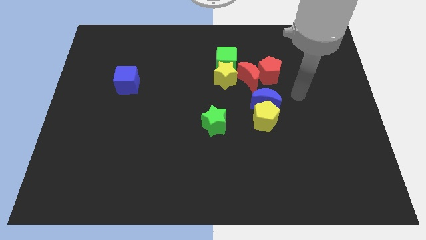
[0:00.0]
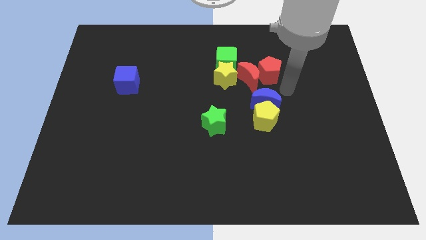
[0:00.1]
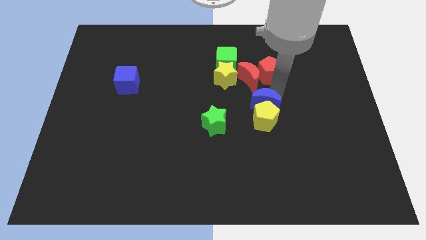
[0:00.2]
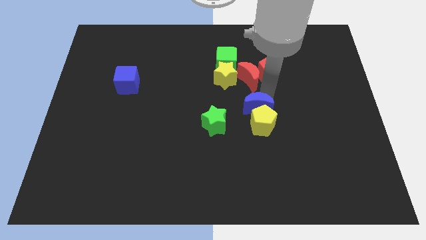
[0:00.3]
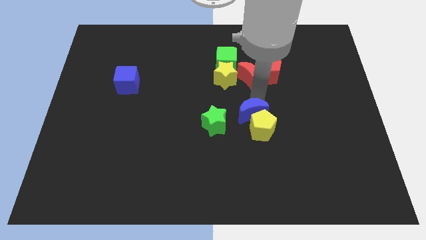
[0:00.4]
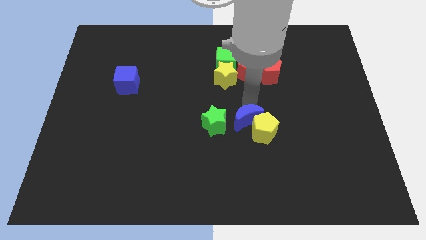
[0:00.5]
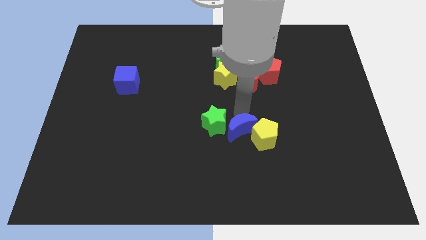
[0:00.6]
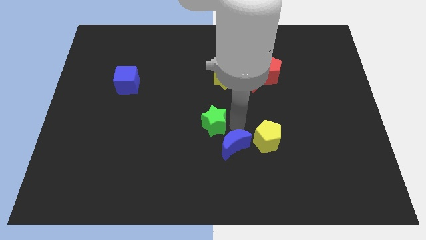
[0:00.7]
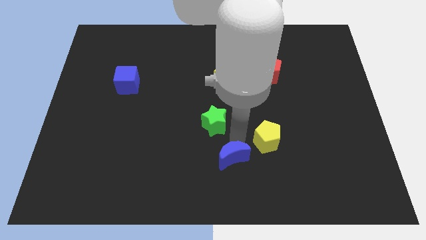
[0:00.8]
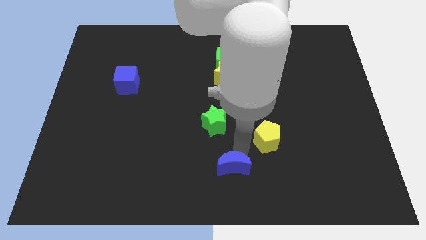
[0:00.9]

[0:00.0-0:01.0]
separate the yellow pentagon from the blue moon

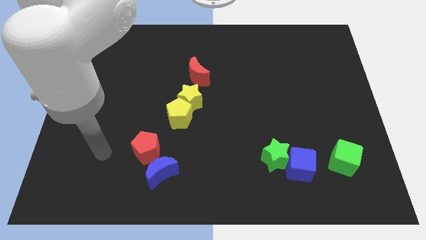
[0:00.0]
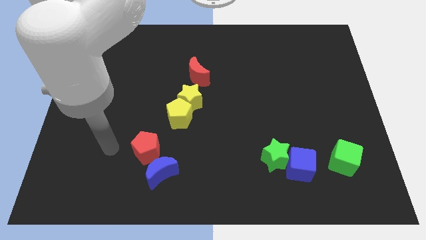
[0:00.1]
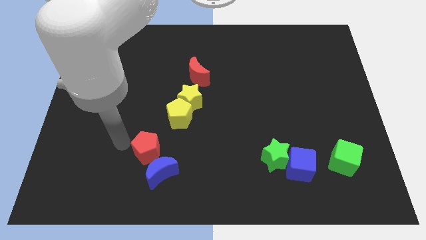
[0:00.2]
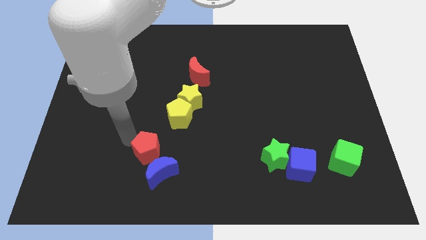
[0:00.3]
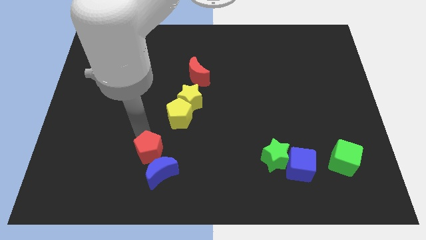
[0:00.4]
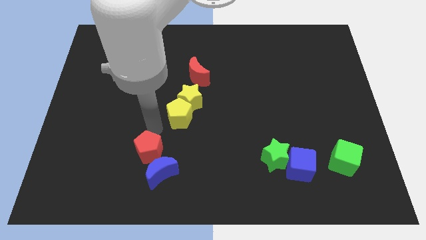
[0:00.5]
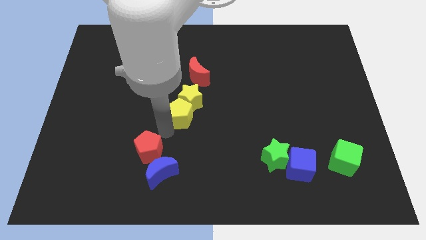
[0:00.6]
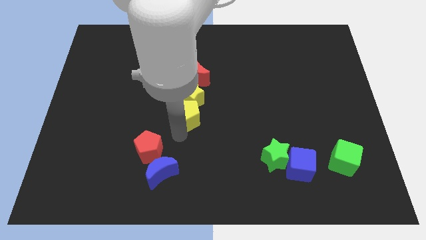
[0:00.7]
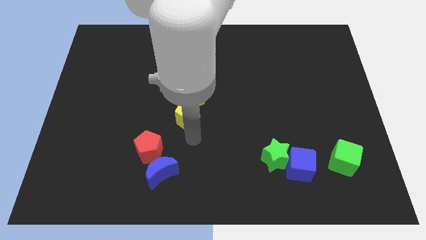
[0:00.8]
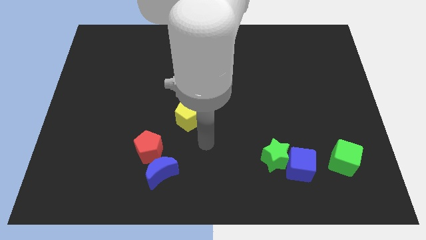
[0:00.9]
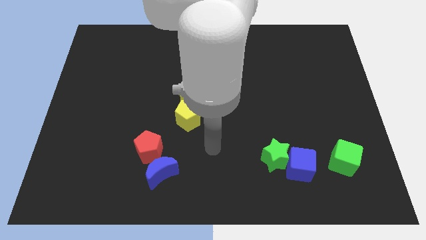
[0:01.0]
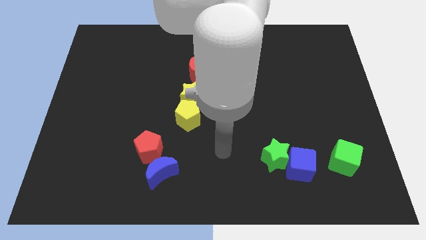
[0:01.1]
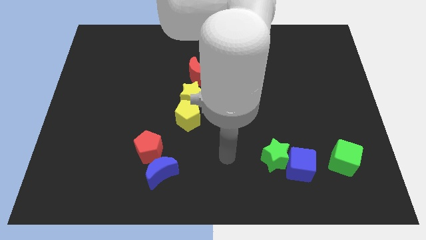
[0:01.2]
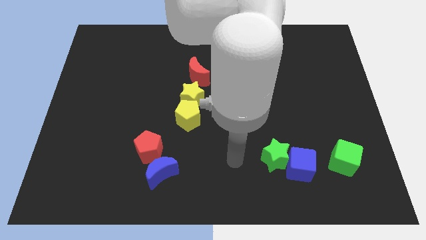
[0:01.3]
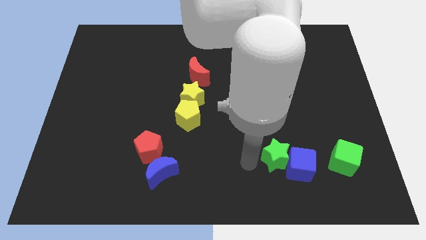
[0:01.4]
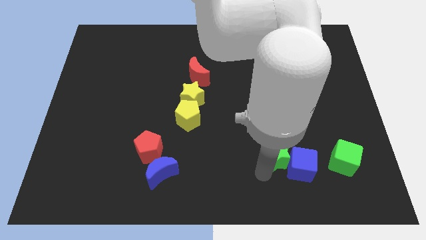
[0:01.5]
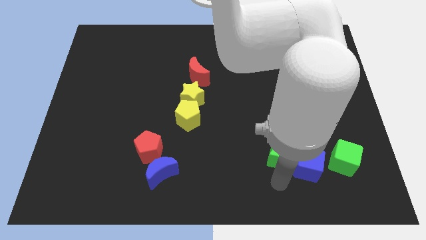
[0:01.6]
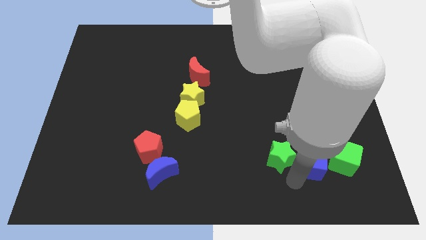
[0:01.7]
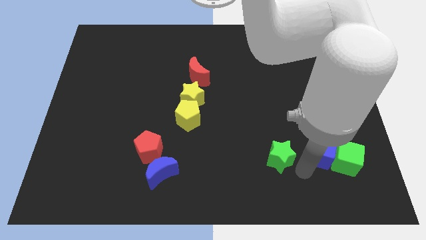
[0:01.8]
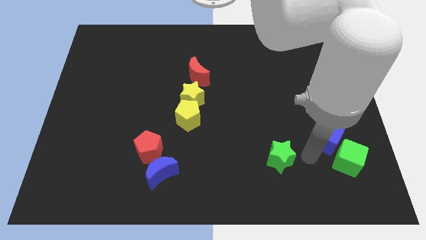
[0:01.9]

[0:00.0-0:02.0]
pull the green star apart from the blue cube

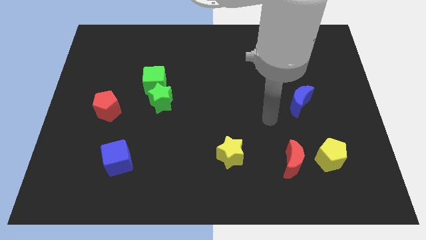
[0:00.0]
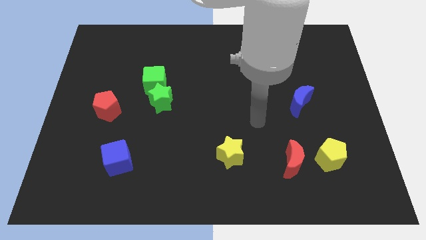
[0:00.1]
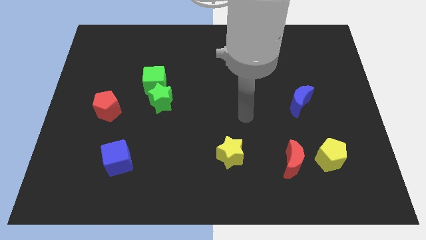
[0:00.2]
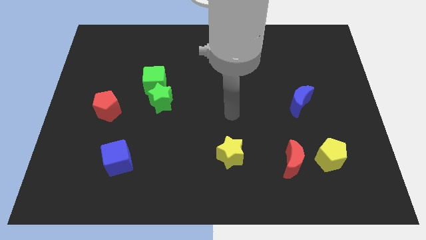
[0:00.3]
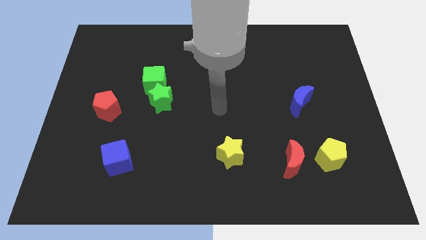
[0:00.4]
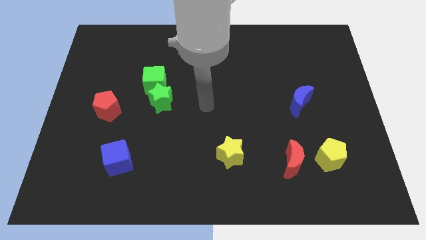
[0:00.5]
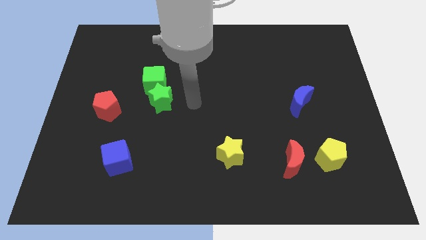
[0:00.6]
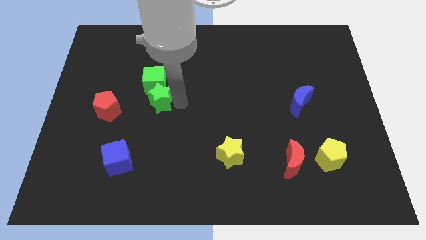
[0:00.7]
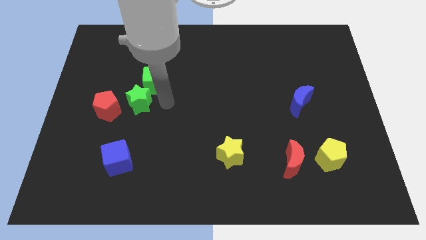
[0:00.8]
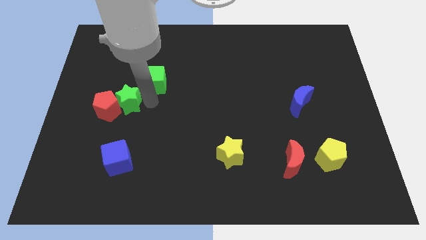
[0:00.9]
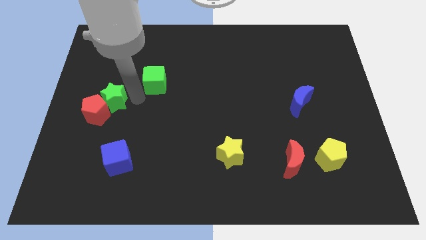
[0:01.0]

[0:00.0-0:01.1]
separate the green cube from the green star

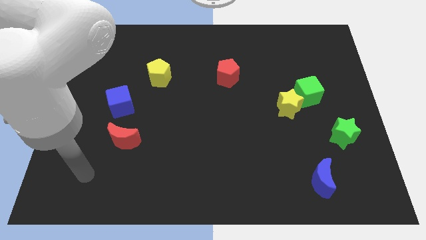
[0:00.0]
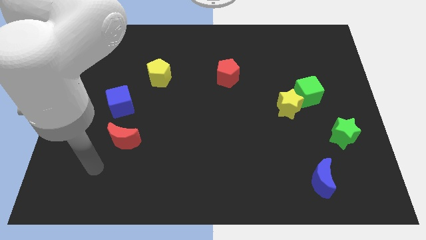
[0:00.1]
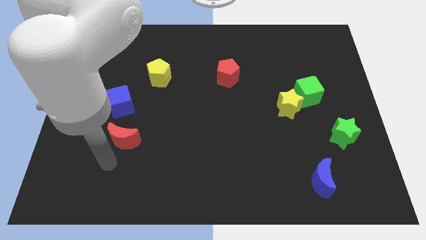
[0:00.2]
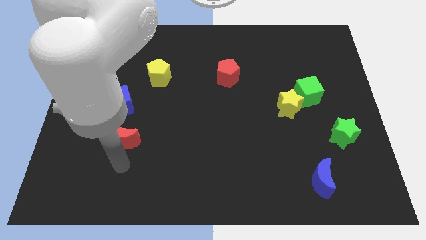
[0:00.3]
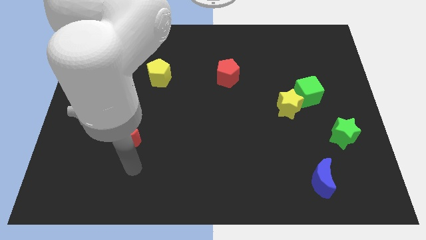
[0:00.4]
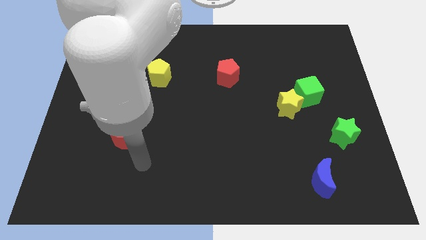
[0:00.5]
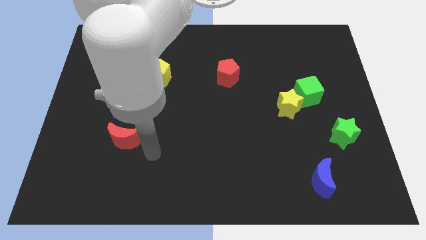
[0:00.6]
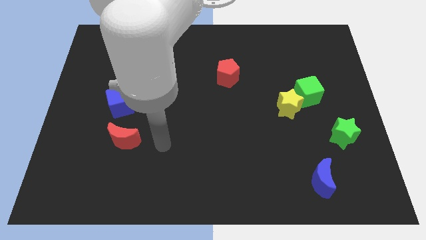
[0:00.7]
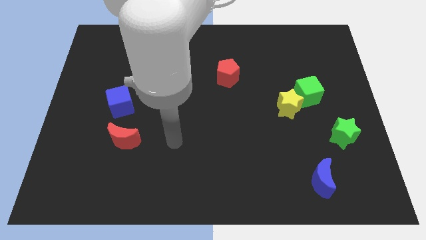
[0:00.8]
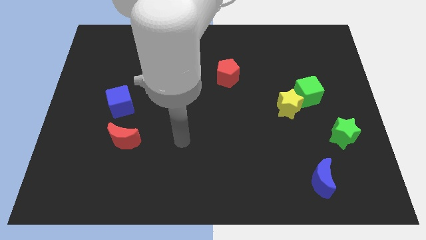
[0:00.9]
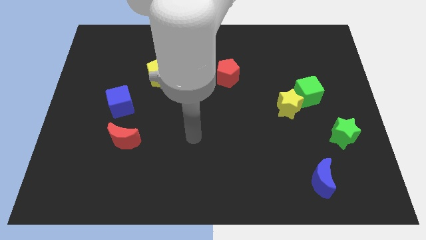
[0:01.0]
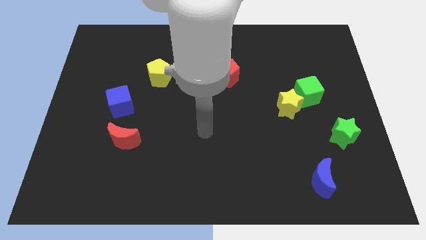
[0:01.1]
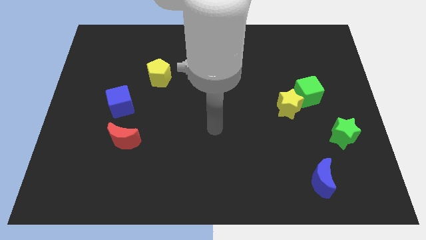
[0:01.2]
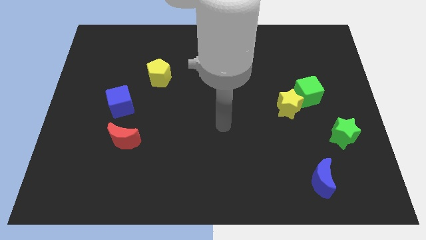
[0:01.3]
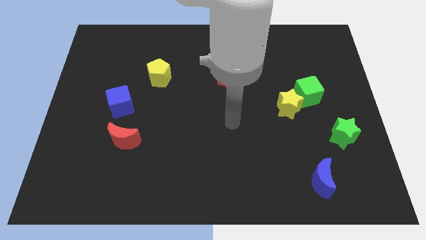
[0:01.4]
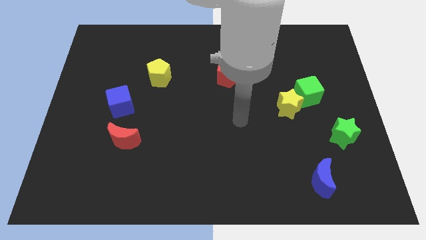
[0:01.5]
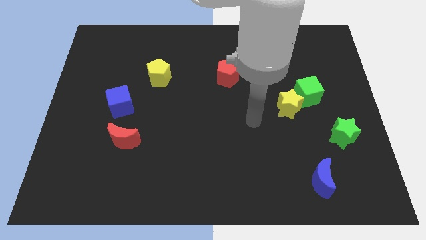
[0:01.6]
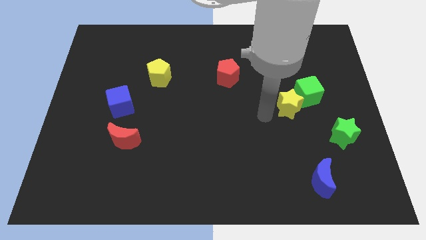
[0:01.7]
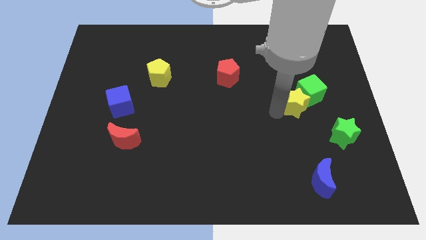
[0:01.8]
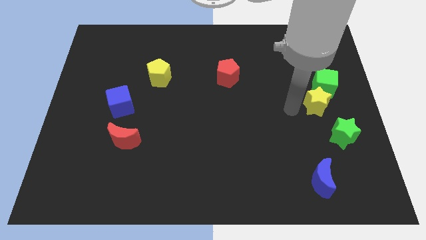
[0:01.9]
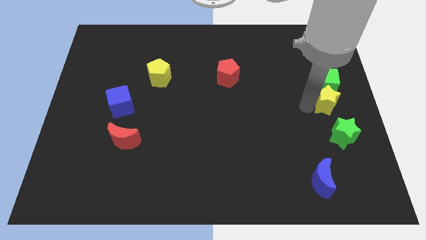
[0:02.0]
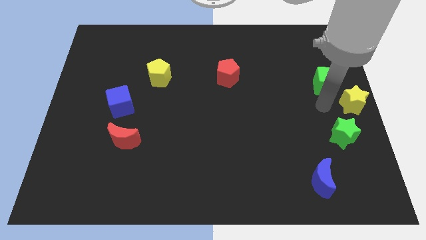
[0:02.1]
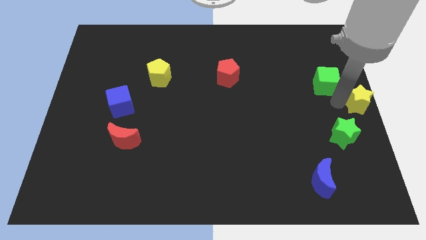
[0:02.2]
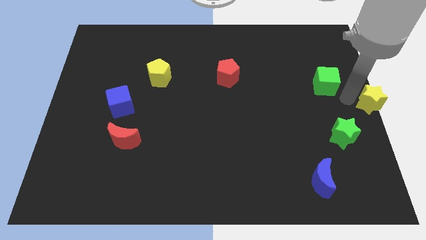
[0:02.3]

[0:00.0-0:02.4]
separate the green cube from the yellow star

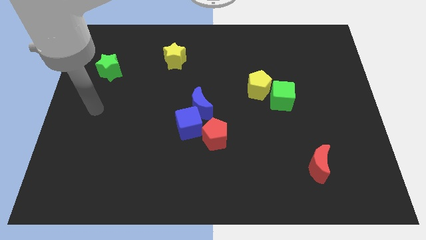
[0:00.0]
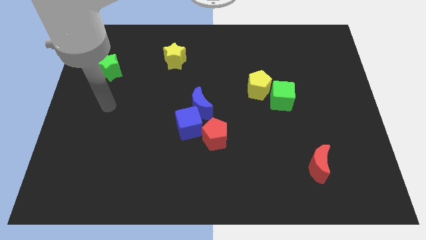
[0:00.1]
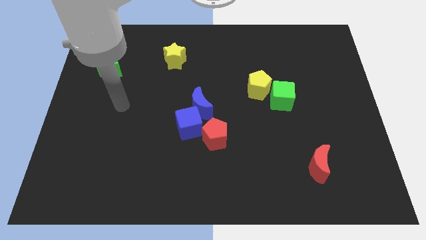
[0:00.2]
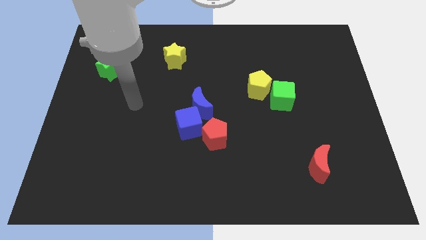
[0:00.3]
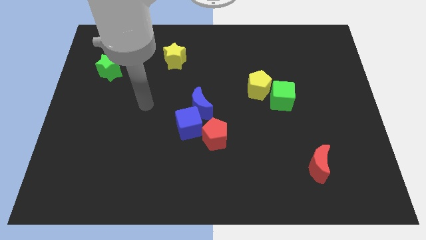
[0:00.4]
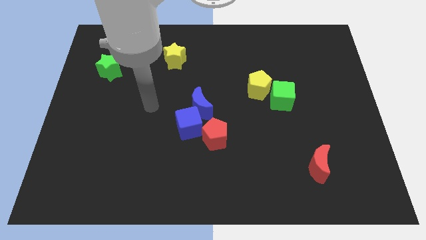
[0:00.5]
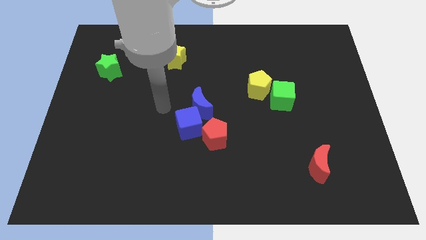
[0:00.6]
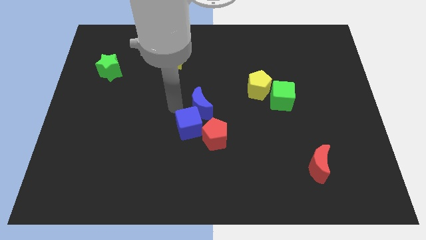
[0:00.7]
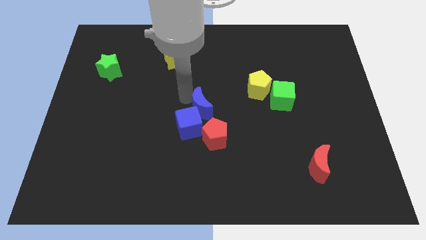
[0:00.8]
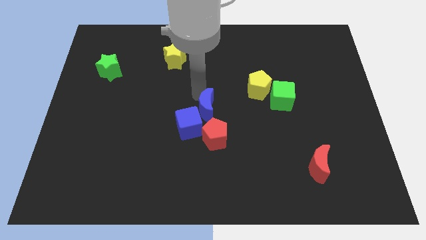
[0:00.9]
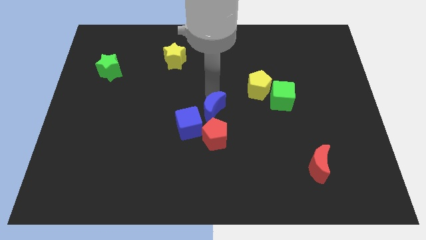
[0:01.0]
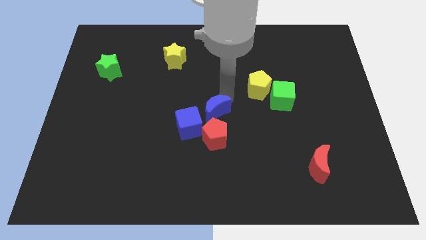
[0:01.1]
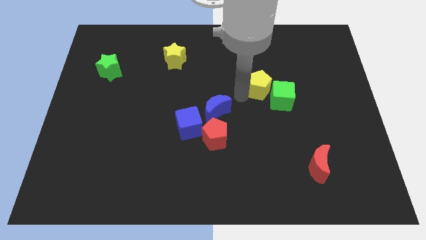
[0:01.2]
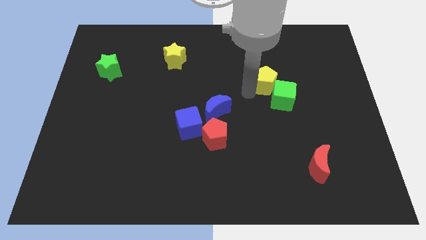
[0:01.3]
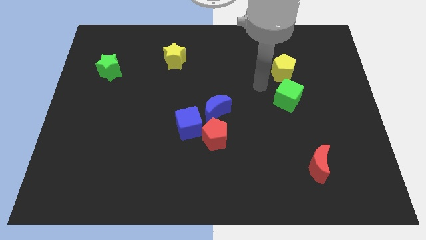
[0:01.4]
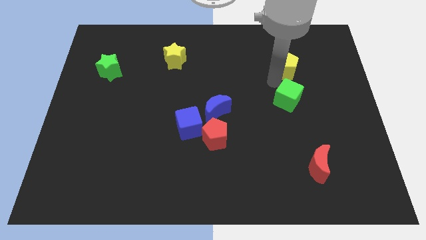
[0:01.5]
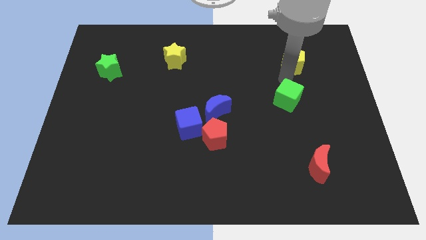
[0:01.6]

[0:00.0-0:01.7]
pull the green cube apart from the yellow pentagon

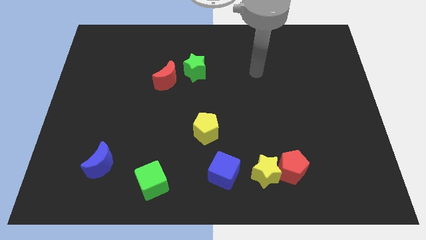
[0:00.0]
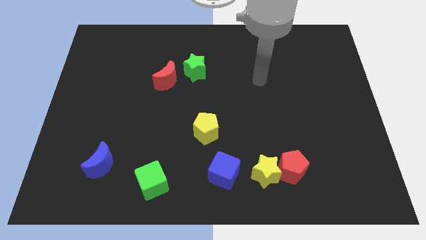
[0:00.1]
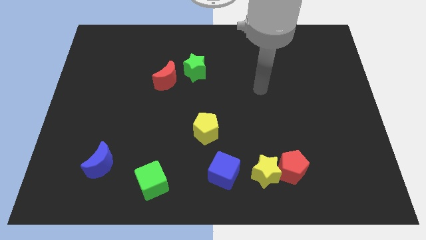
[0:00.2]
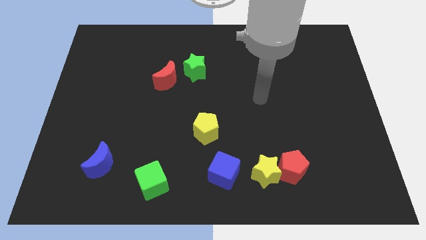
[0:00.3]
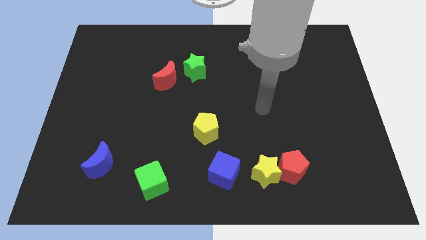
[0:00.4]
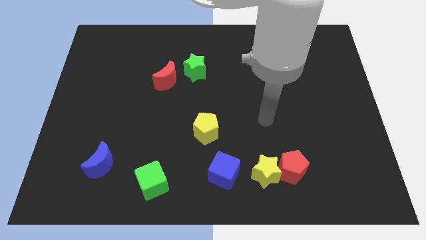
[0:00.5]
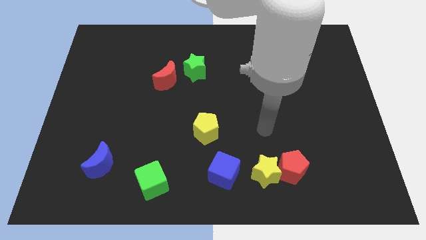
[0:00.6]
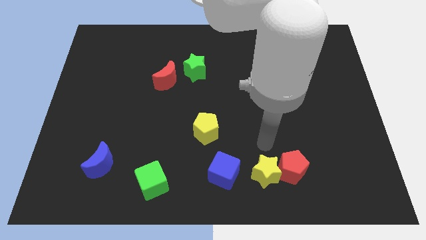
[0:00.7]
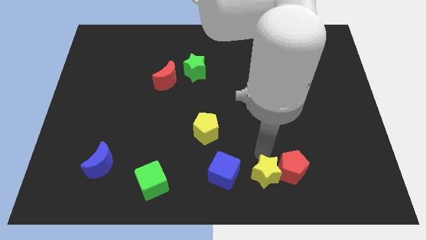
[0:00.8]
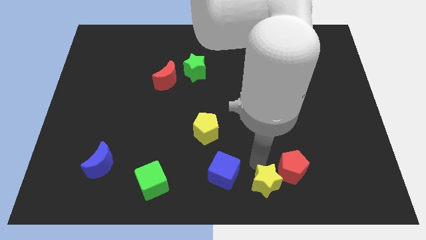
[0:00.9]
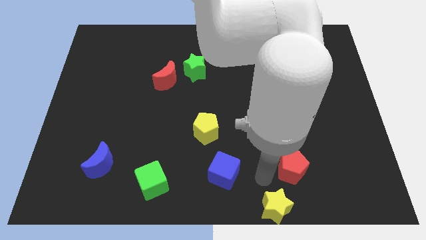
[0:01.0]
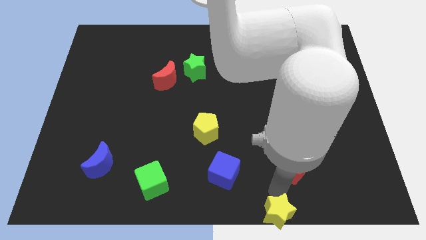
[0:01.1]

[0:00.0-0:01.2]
separate the red pentagon from the yellow star
